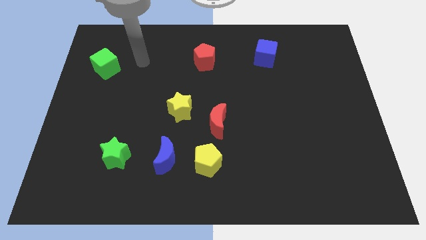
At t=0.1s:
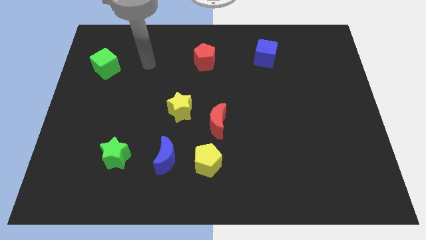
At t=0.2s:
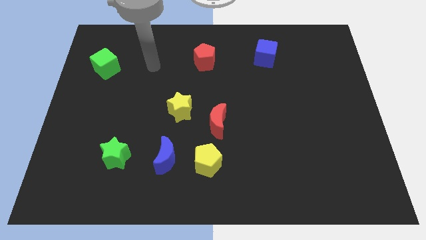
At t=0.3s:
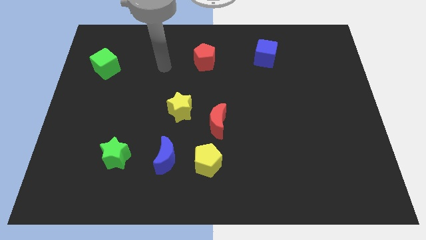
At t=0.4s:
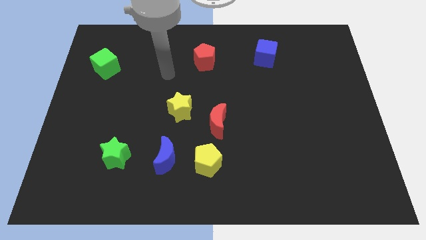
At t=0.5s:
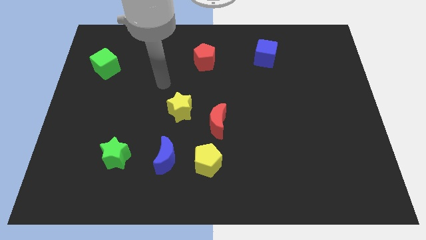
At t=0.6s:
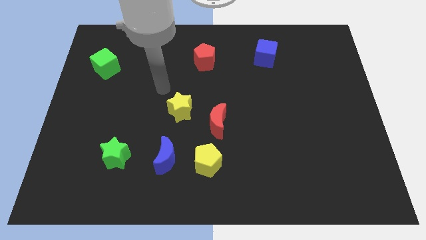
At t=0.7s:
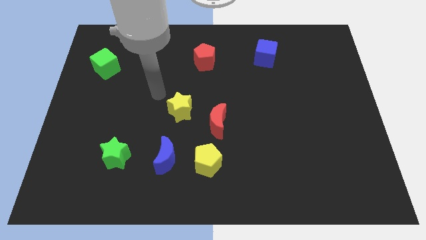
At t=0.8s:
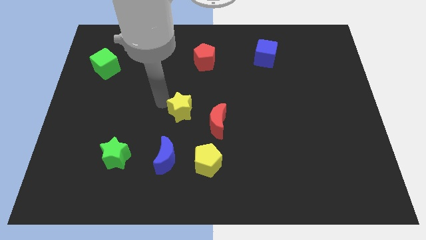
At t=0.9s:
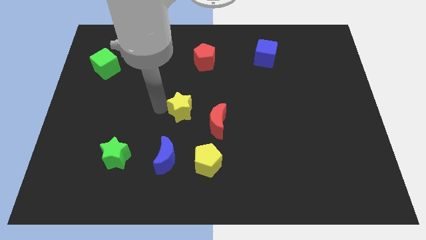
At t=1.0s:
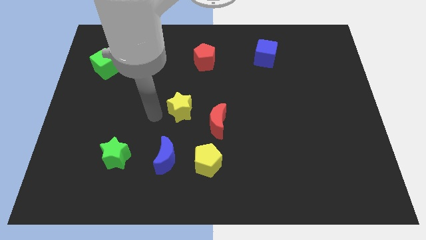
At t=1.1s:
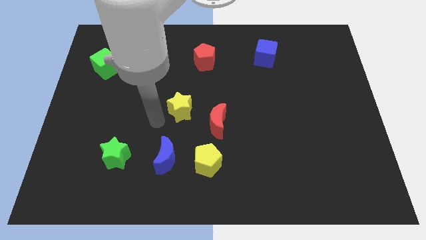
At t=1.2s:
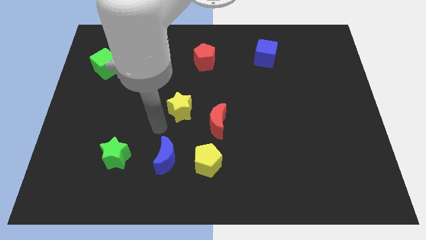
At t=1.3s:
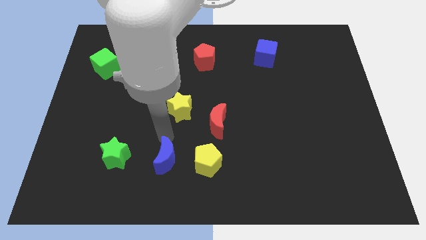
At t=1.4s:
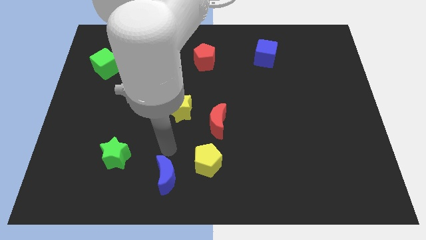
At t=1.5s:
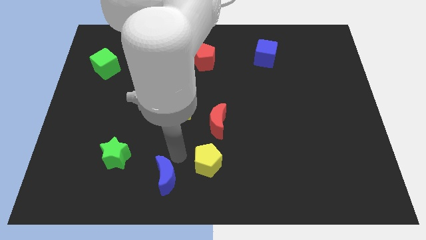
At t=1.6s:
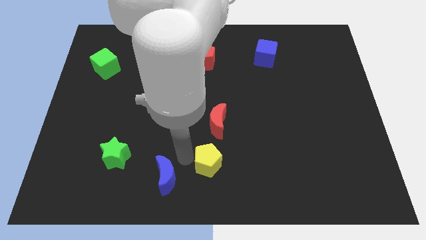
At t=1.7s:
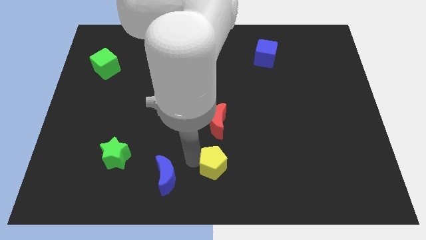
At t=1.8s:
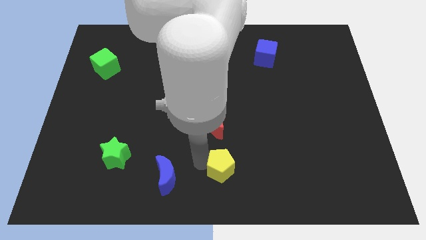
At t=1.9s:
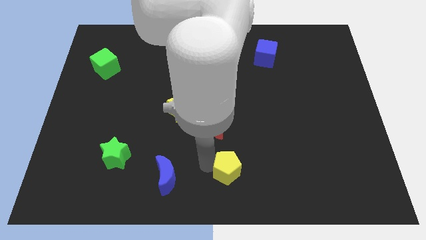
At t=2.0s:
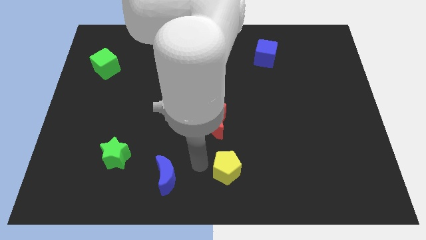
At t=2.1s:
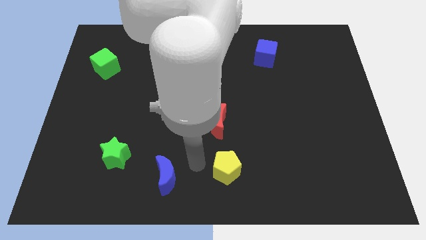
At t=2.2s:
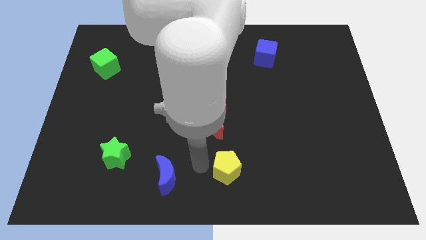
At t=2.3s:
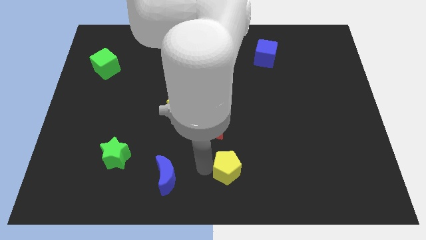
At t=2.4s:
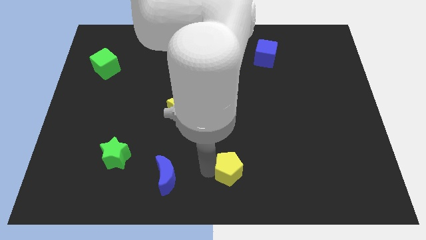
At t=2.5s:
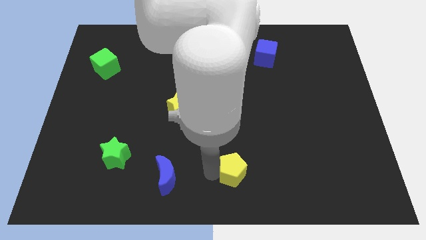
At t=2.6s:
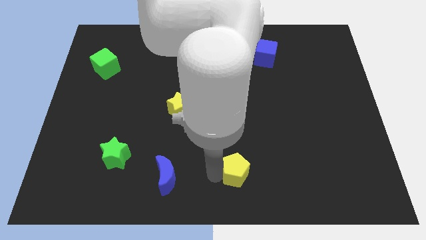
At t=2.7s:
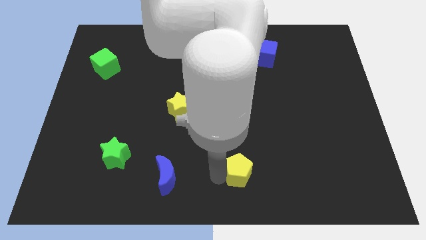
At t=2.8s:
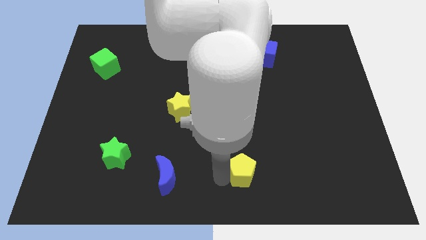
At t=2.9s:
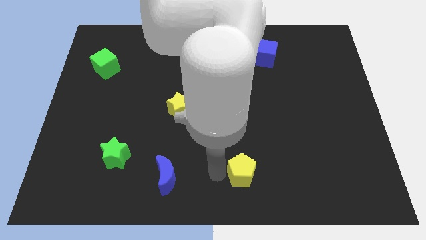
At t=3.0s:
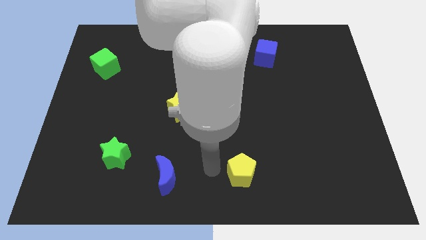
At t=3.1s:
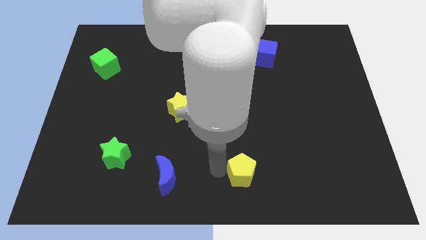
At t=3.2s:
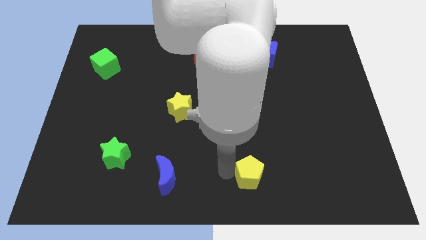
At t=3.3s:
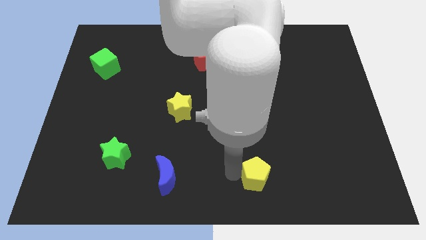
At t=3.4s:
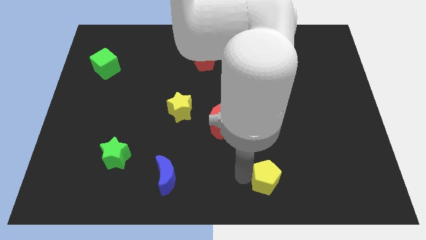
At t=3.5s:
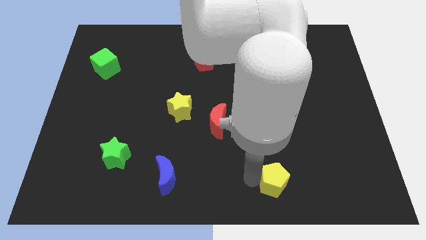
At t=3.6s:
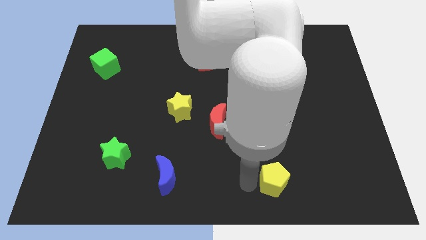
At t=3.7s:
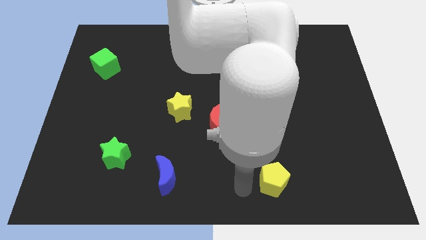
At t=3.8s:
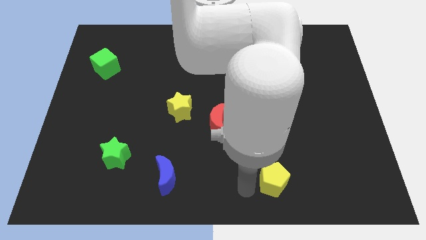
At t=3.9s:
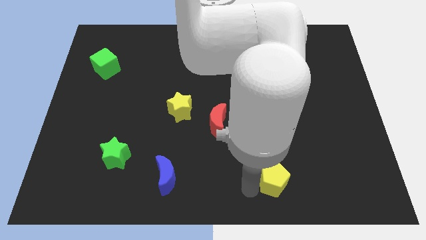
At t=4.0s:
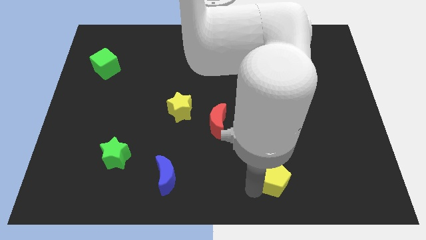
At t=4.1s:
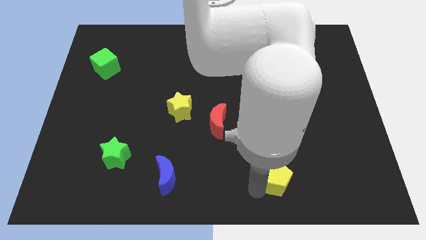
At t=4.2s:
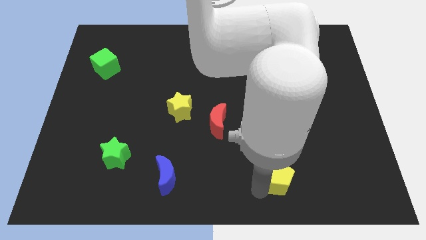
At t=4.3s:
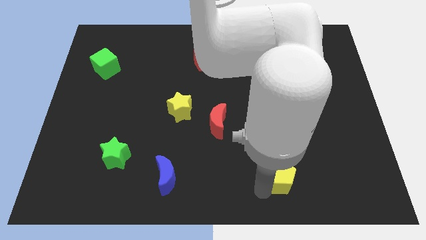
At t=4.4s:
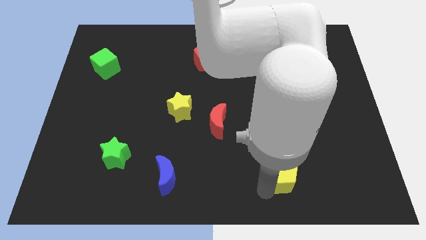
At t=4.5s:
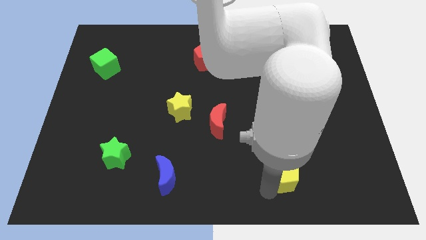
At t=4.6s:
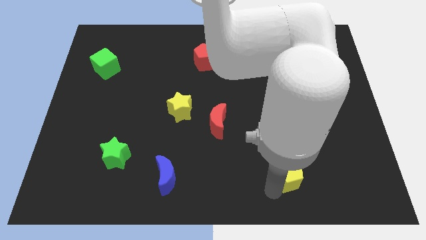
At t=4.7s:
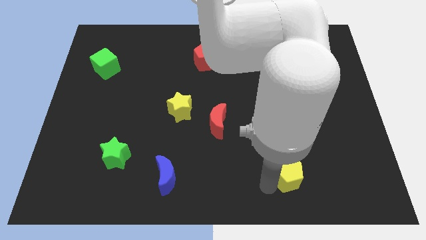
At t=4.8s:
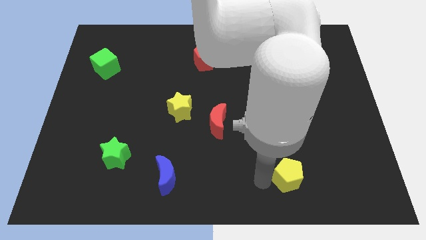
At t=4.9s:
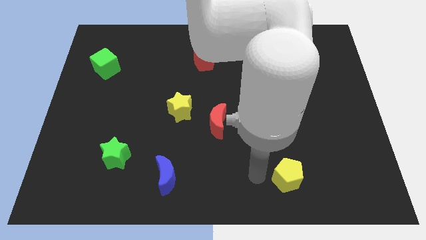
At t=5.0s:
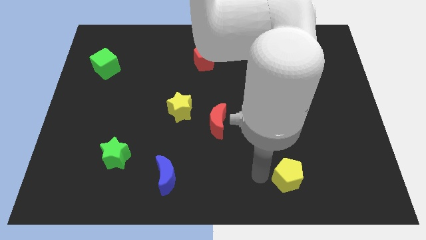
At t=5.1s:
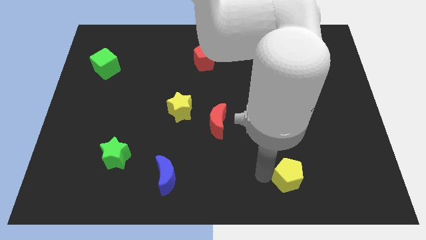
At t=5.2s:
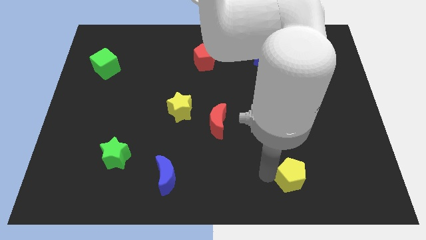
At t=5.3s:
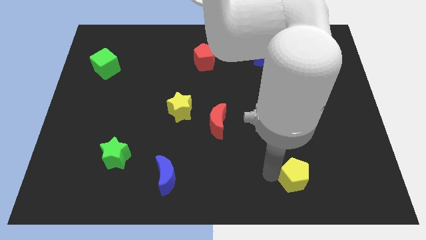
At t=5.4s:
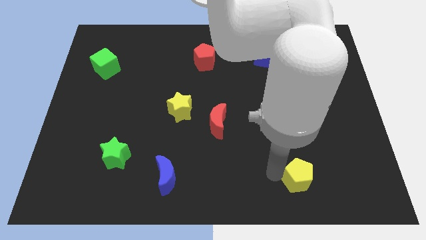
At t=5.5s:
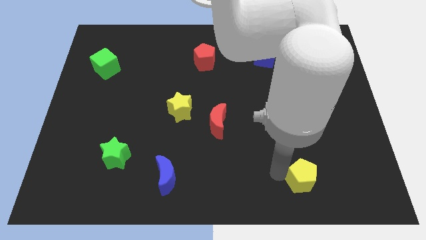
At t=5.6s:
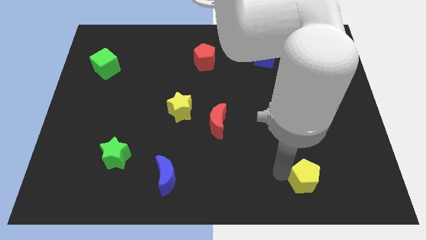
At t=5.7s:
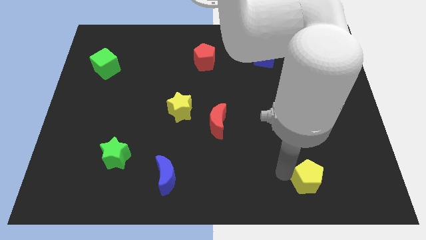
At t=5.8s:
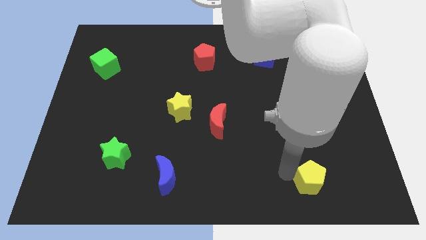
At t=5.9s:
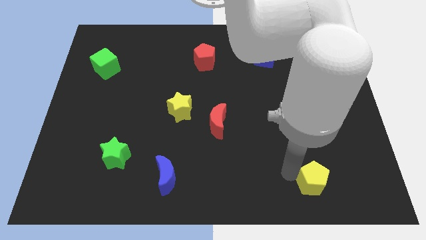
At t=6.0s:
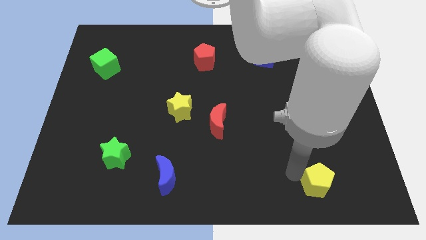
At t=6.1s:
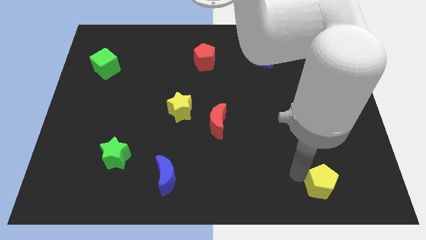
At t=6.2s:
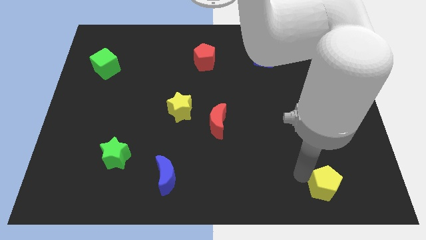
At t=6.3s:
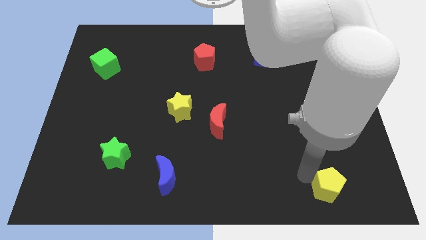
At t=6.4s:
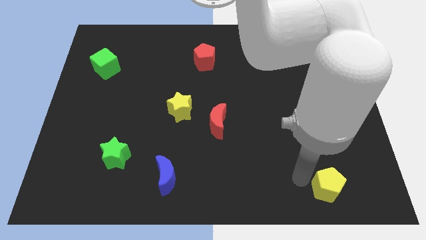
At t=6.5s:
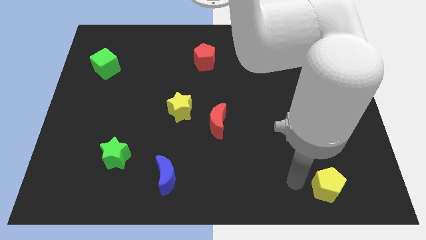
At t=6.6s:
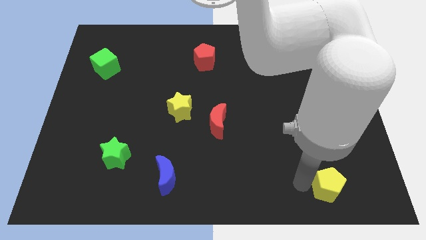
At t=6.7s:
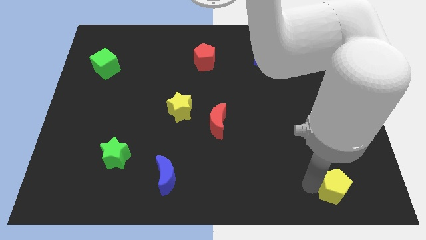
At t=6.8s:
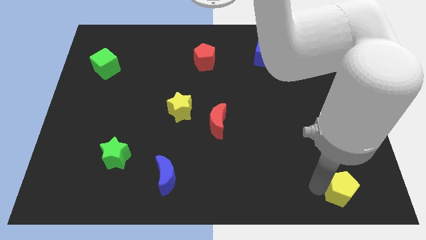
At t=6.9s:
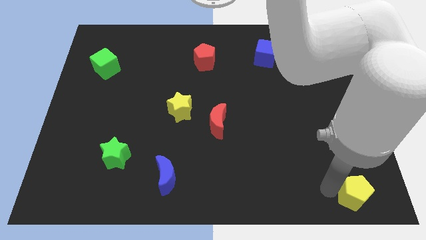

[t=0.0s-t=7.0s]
slide the yellow pentagon to the bottom right of the board
